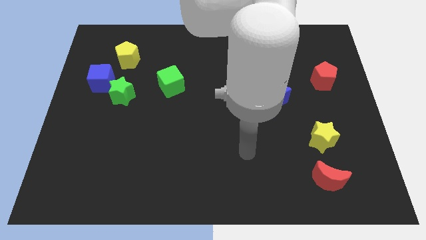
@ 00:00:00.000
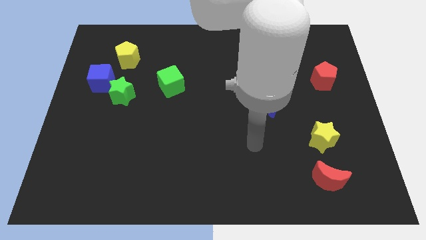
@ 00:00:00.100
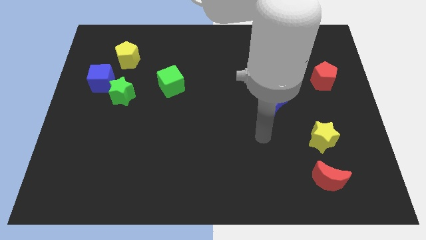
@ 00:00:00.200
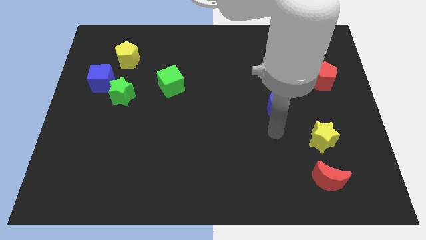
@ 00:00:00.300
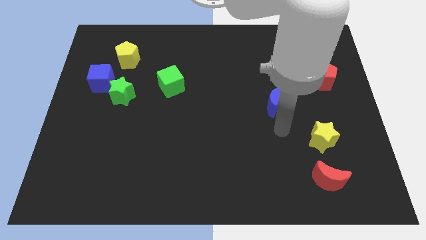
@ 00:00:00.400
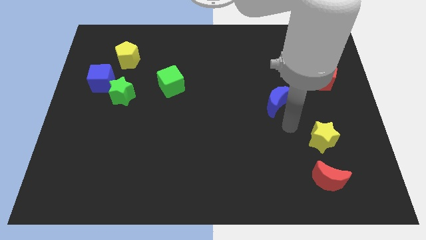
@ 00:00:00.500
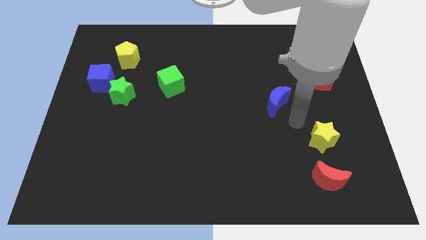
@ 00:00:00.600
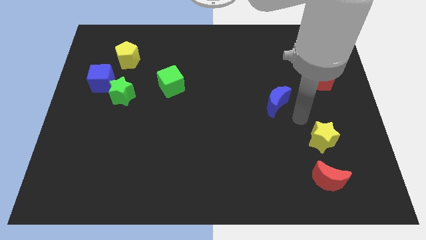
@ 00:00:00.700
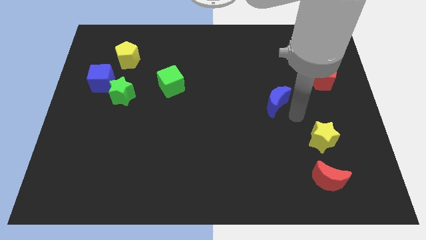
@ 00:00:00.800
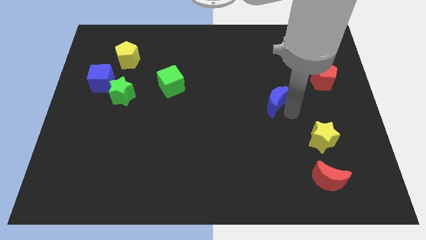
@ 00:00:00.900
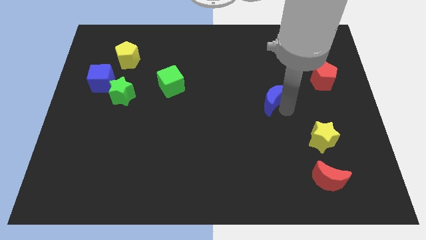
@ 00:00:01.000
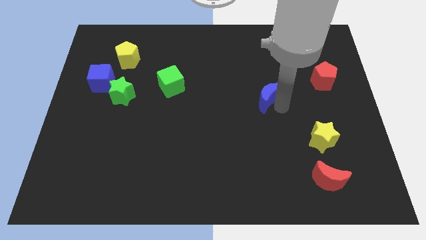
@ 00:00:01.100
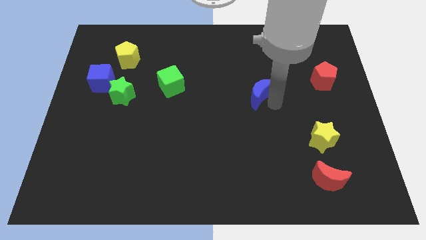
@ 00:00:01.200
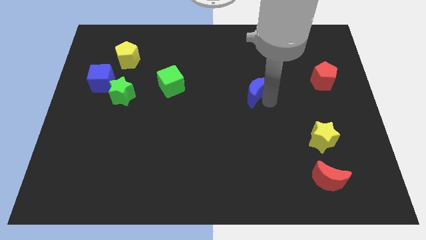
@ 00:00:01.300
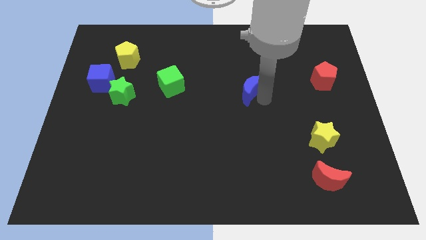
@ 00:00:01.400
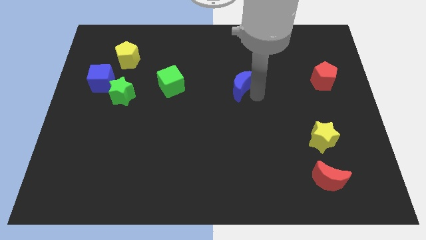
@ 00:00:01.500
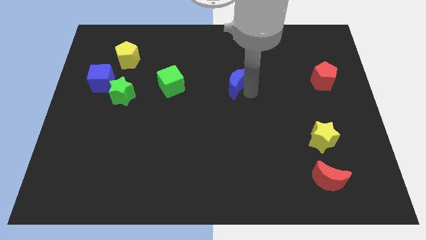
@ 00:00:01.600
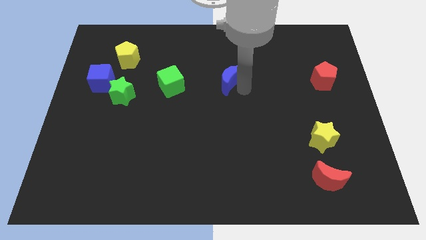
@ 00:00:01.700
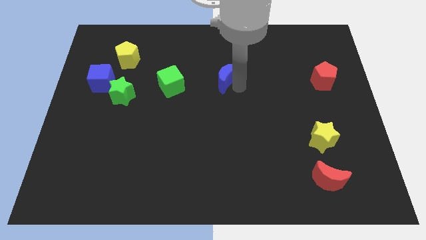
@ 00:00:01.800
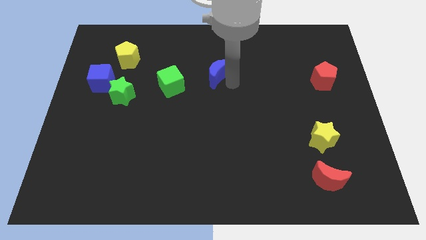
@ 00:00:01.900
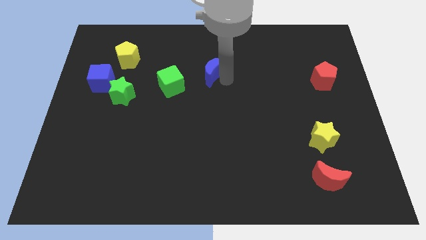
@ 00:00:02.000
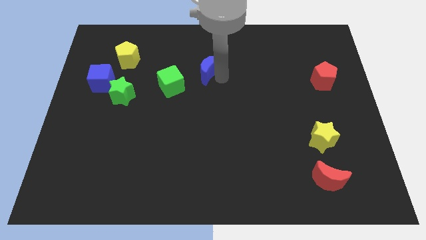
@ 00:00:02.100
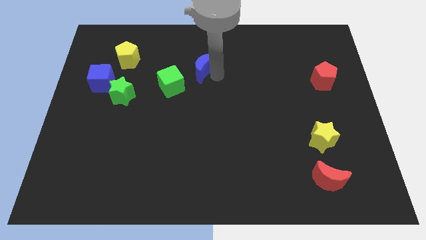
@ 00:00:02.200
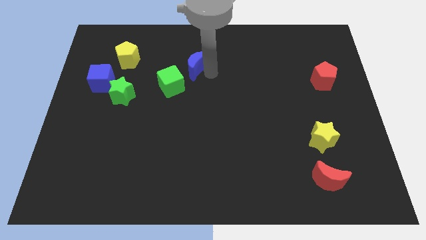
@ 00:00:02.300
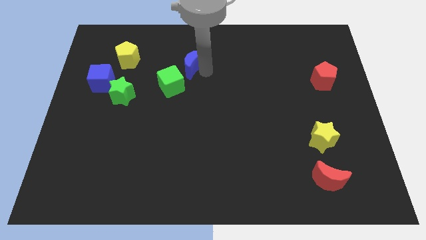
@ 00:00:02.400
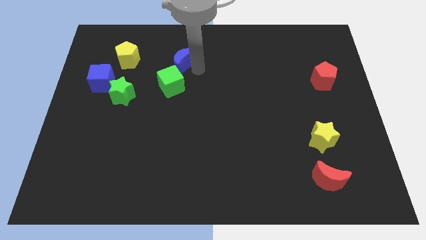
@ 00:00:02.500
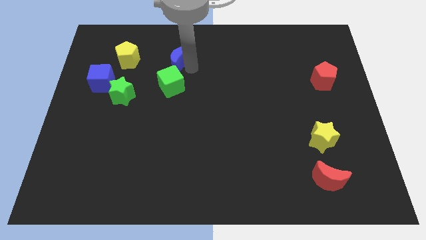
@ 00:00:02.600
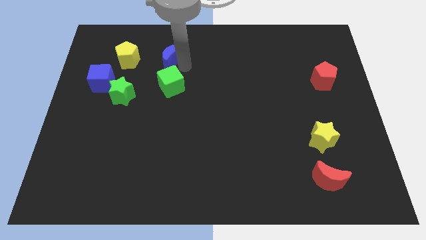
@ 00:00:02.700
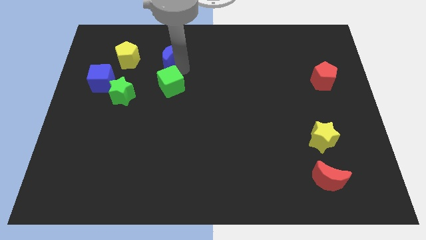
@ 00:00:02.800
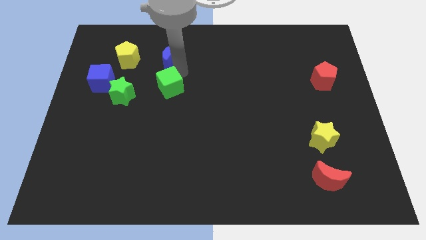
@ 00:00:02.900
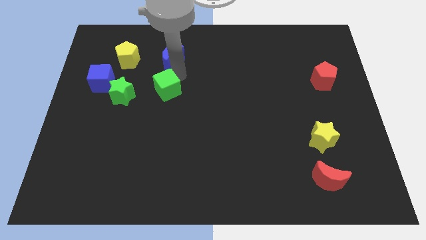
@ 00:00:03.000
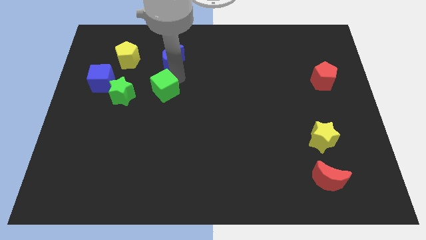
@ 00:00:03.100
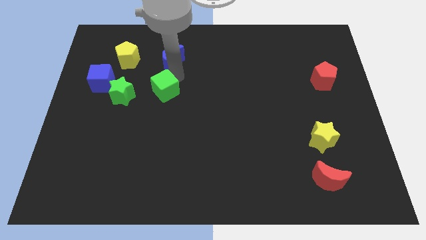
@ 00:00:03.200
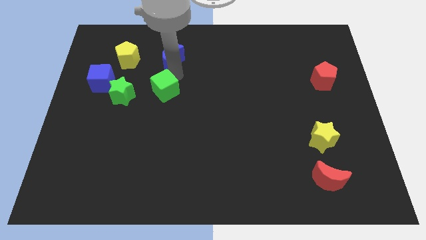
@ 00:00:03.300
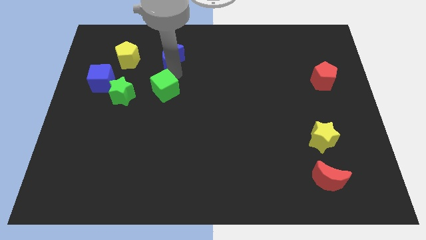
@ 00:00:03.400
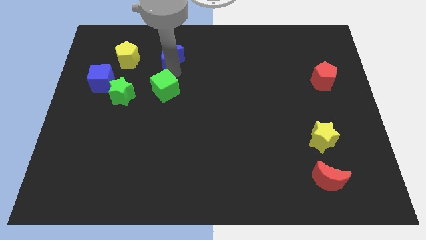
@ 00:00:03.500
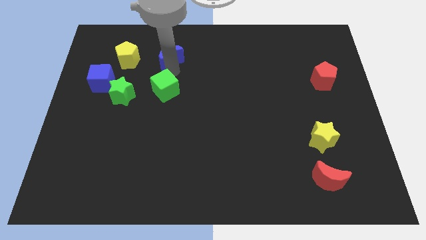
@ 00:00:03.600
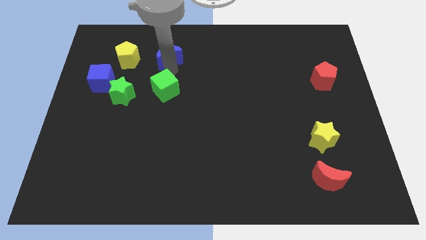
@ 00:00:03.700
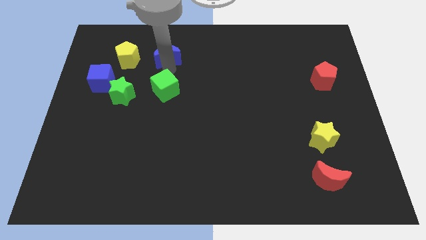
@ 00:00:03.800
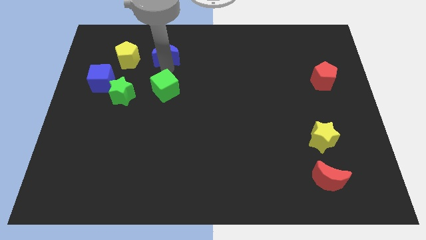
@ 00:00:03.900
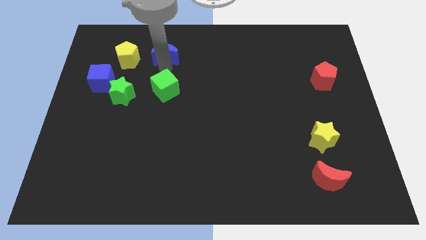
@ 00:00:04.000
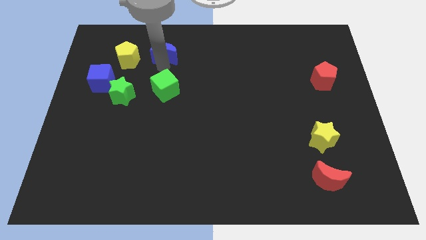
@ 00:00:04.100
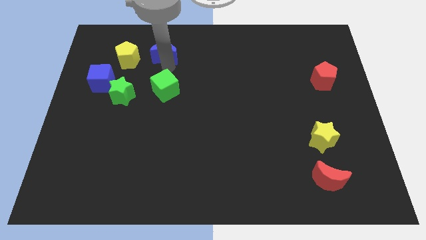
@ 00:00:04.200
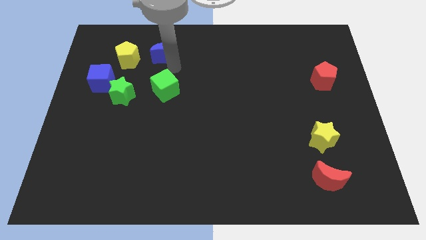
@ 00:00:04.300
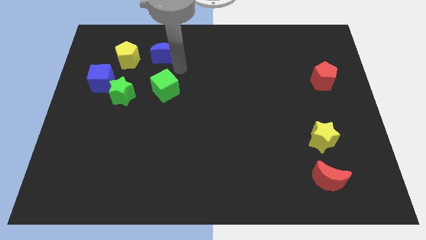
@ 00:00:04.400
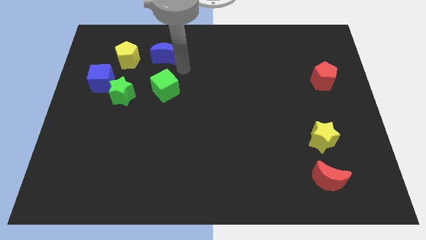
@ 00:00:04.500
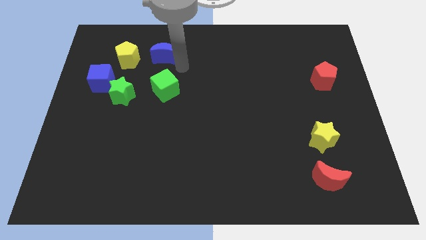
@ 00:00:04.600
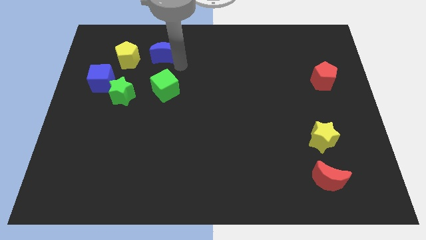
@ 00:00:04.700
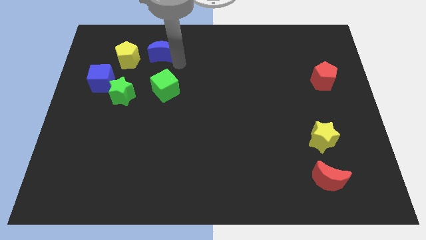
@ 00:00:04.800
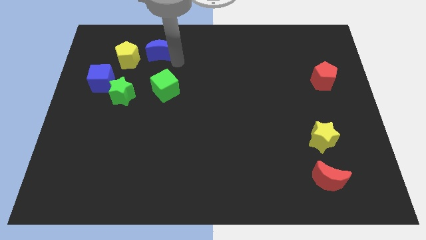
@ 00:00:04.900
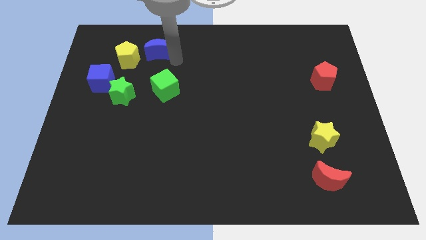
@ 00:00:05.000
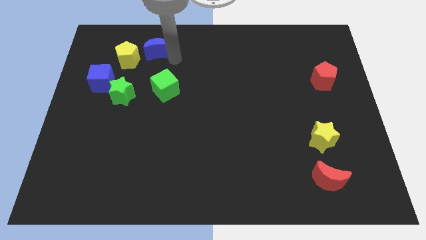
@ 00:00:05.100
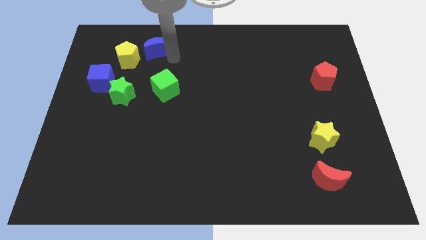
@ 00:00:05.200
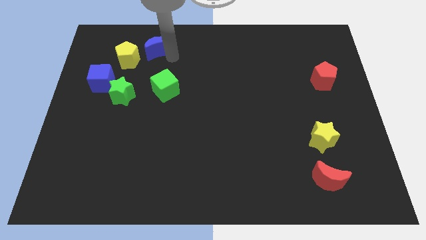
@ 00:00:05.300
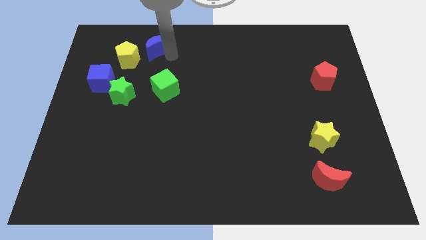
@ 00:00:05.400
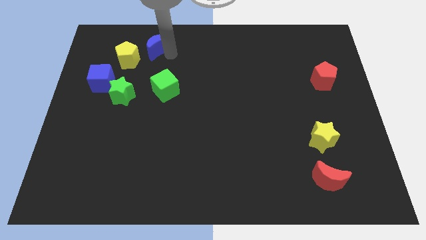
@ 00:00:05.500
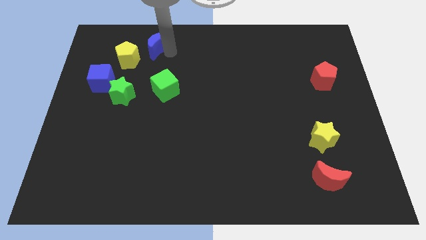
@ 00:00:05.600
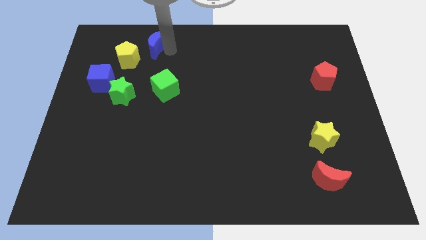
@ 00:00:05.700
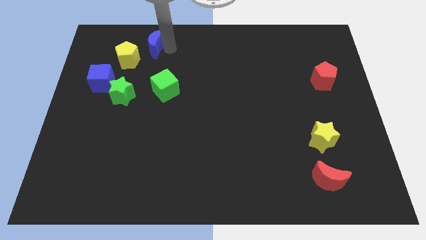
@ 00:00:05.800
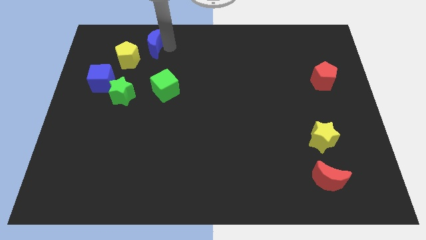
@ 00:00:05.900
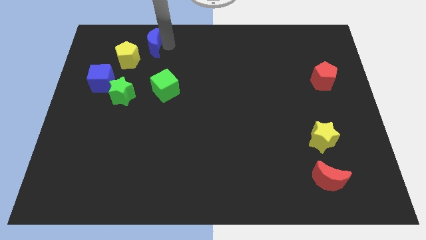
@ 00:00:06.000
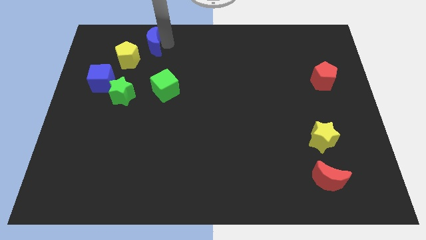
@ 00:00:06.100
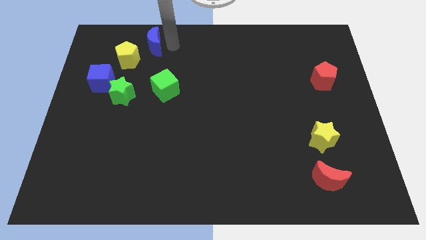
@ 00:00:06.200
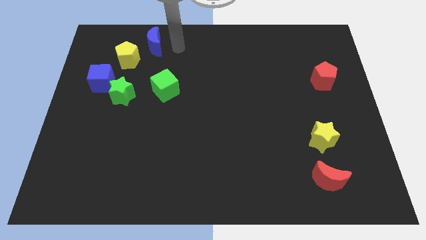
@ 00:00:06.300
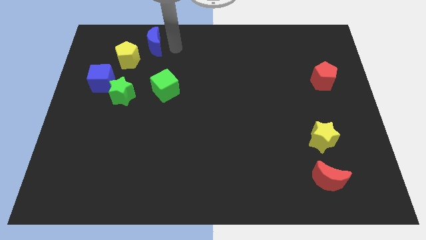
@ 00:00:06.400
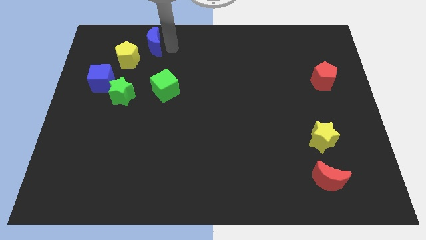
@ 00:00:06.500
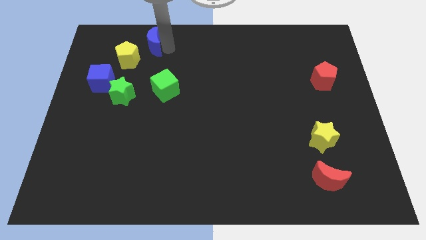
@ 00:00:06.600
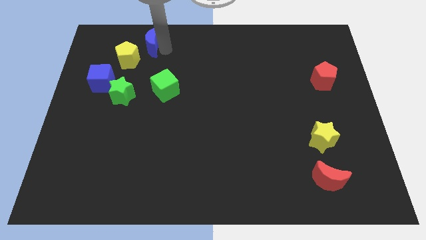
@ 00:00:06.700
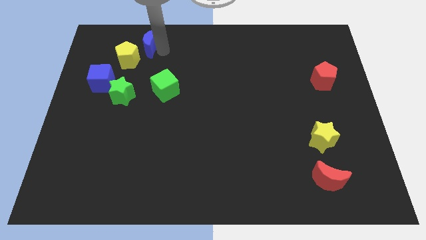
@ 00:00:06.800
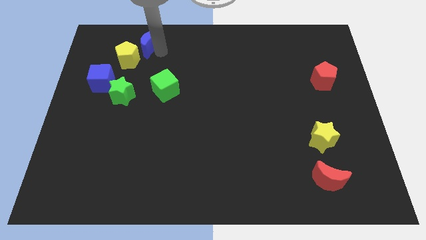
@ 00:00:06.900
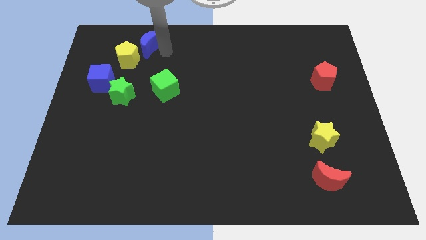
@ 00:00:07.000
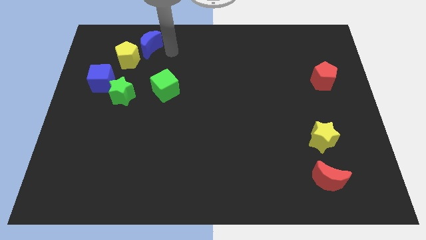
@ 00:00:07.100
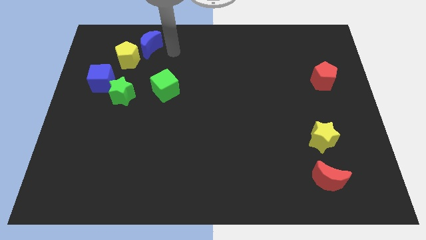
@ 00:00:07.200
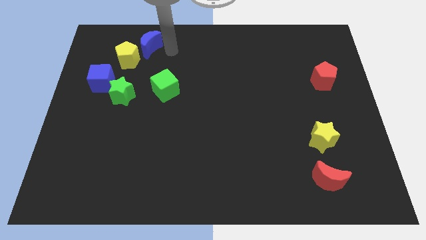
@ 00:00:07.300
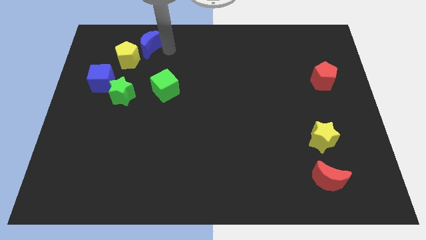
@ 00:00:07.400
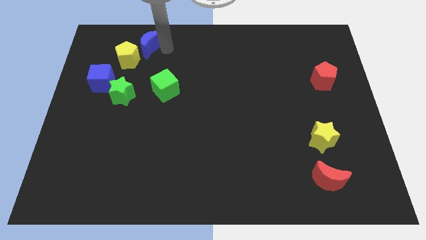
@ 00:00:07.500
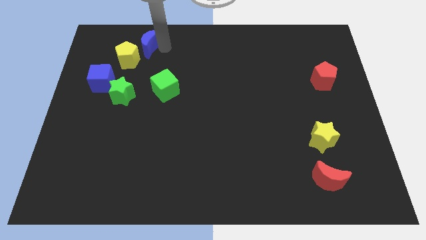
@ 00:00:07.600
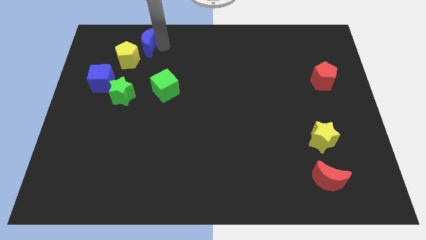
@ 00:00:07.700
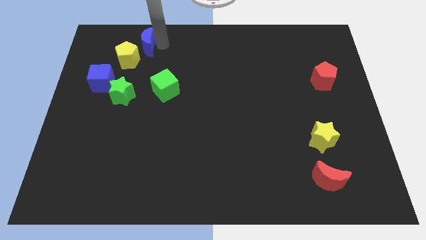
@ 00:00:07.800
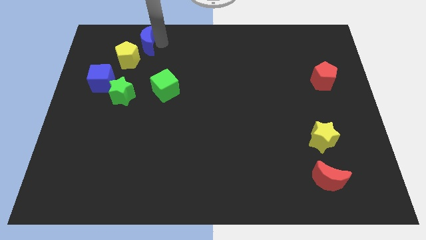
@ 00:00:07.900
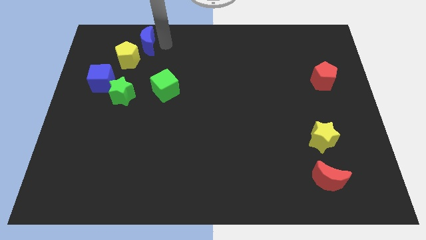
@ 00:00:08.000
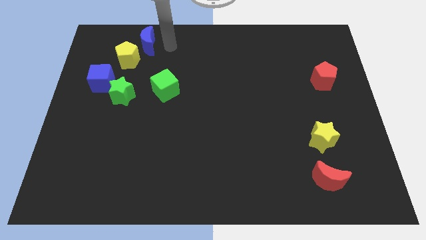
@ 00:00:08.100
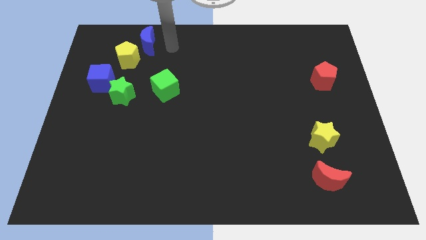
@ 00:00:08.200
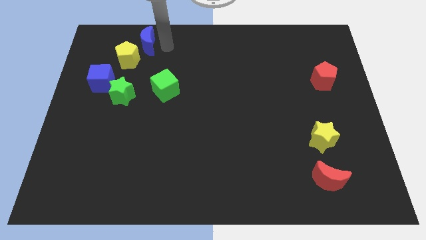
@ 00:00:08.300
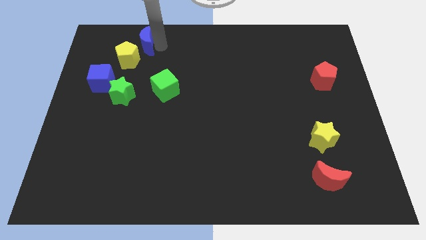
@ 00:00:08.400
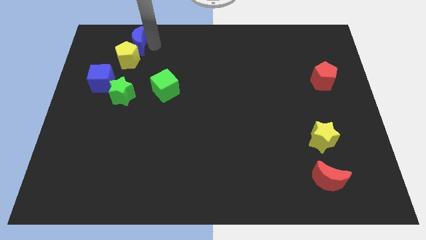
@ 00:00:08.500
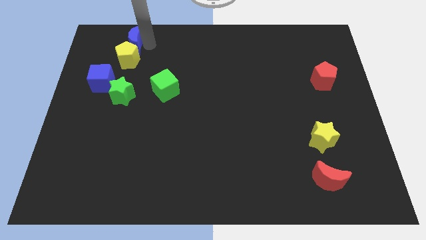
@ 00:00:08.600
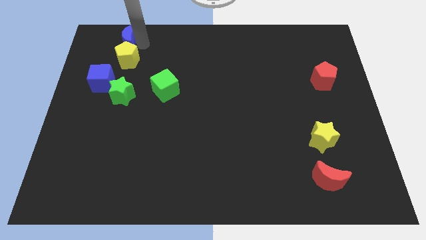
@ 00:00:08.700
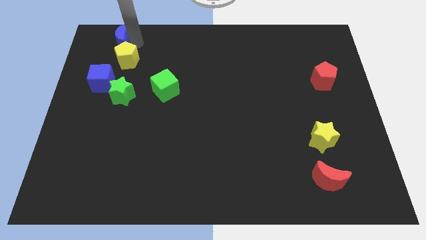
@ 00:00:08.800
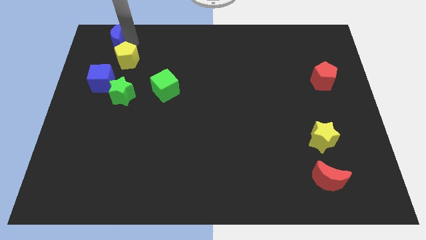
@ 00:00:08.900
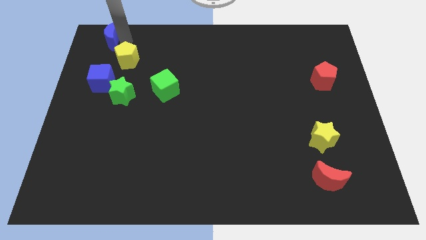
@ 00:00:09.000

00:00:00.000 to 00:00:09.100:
slide the blue moon to the top left
